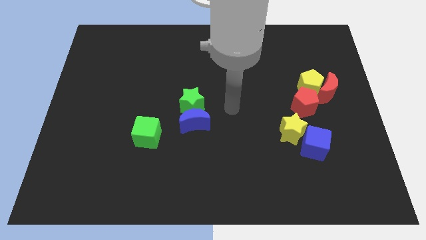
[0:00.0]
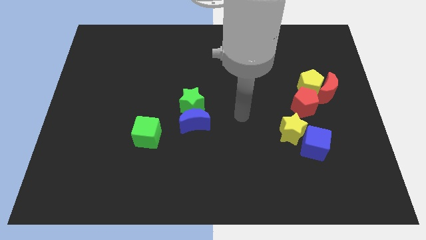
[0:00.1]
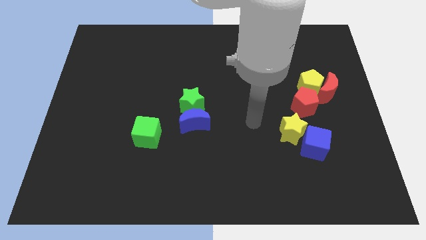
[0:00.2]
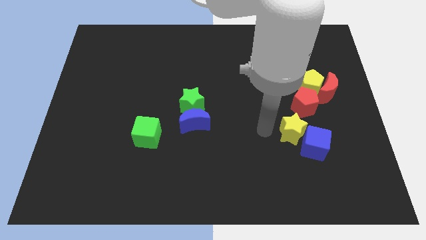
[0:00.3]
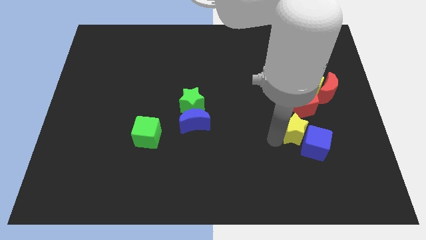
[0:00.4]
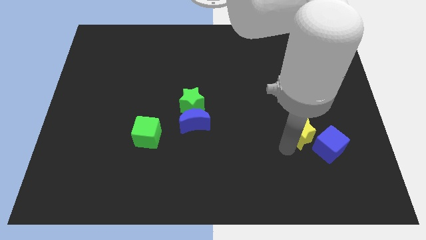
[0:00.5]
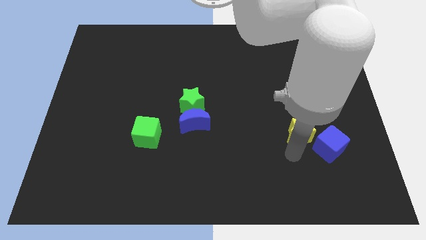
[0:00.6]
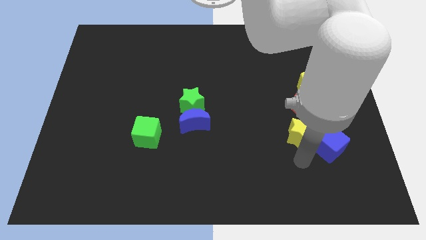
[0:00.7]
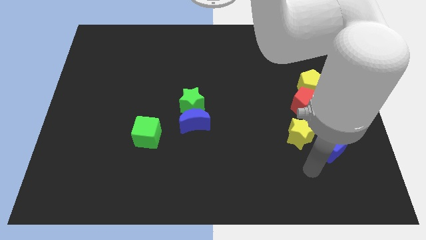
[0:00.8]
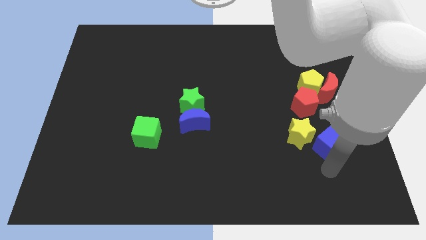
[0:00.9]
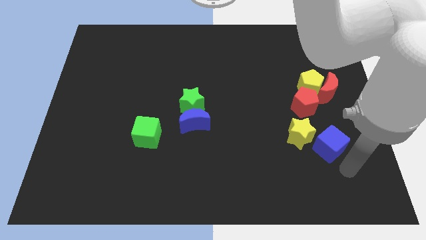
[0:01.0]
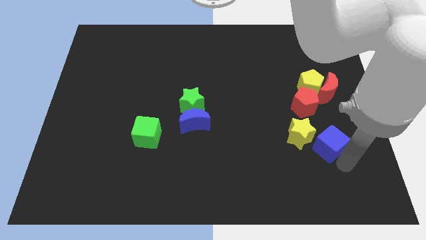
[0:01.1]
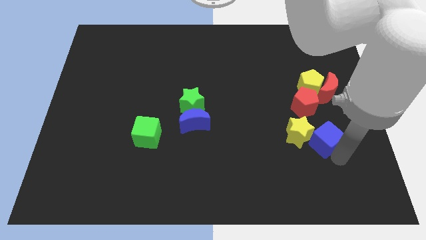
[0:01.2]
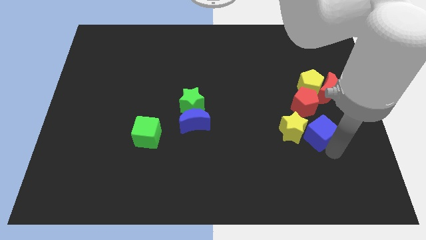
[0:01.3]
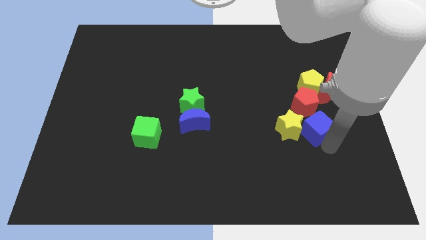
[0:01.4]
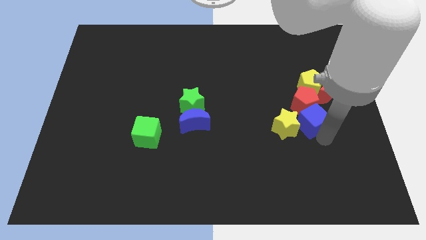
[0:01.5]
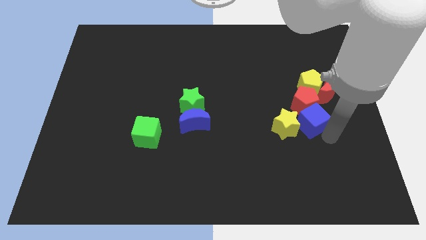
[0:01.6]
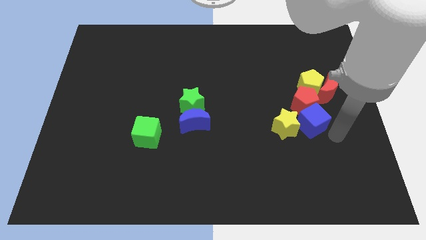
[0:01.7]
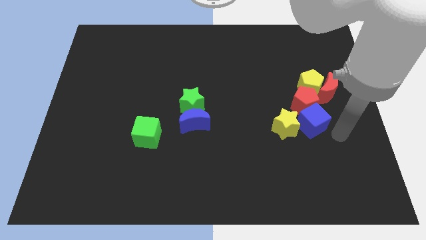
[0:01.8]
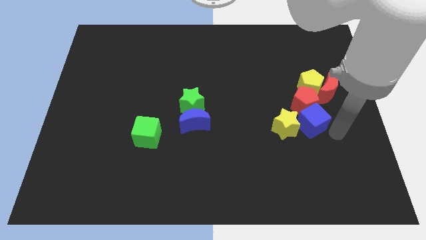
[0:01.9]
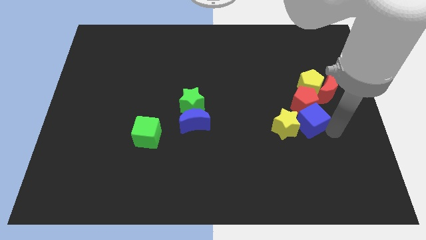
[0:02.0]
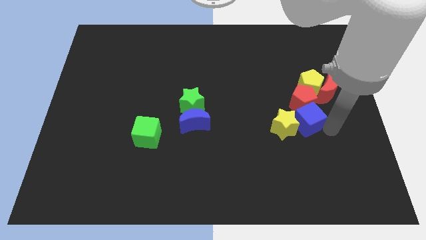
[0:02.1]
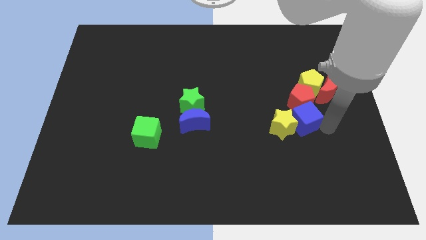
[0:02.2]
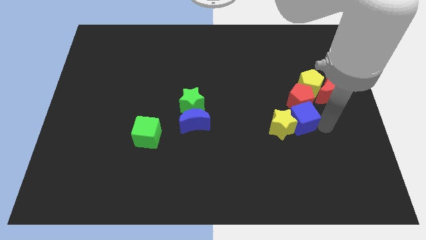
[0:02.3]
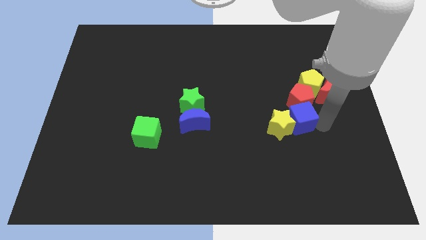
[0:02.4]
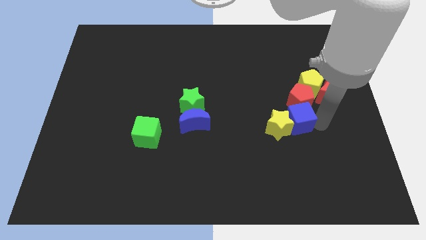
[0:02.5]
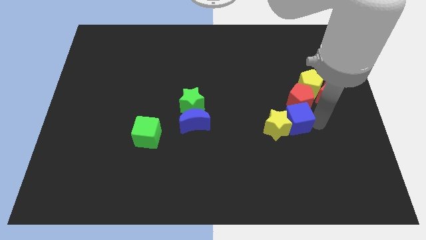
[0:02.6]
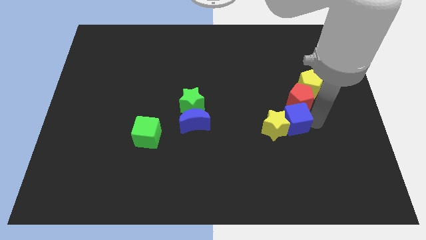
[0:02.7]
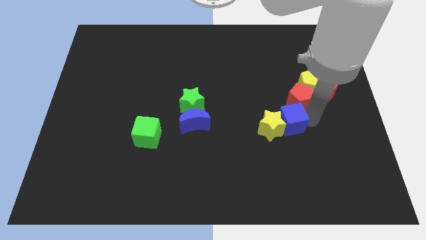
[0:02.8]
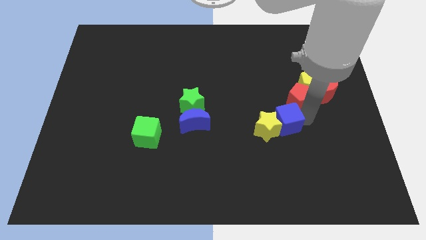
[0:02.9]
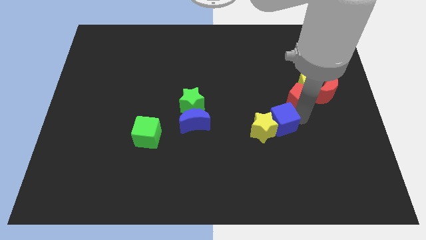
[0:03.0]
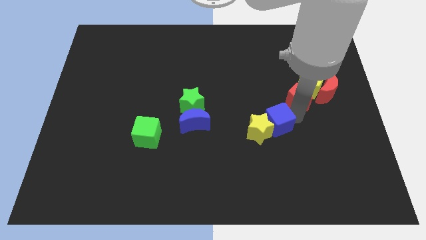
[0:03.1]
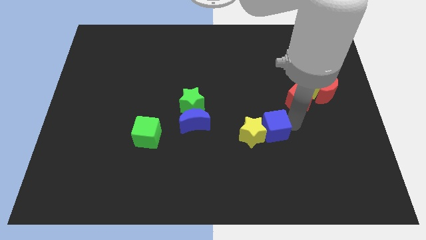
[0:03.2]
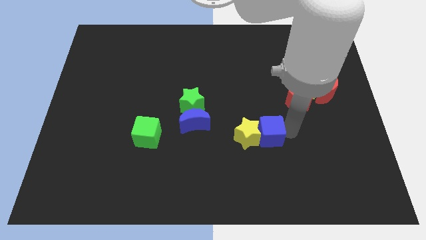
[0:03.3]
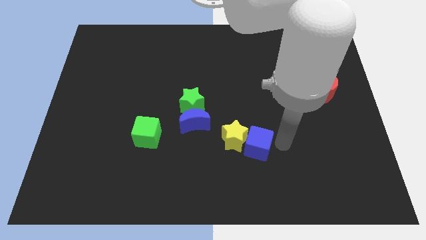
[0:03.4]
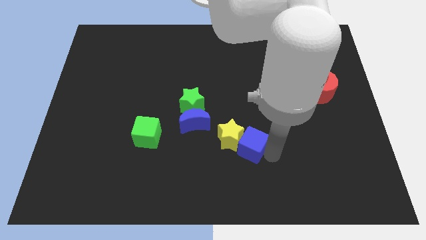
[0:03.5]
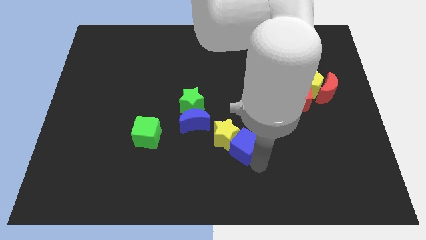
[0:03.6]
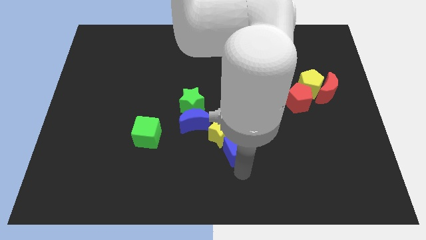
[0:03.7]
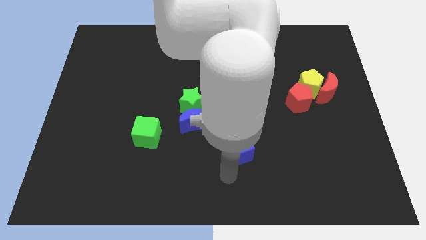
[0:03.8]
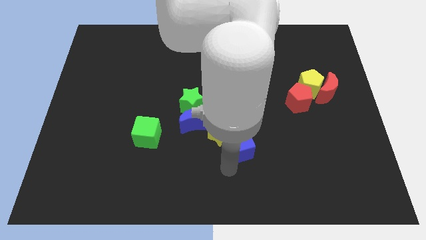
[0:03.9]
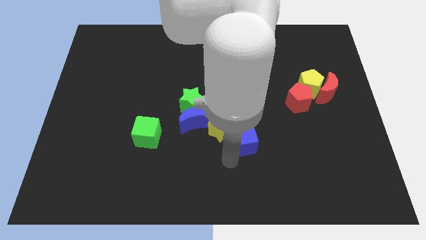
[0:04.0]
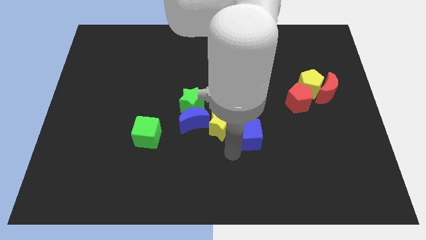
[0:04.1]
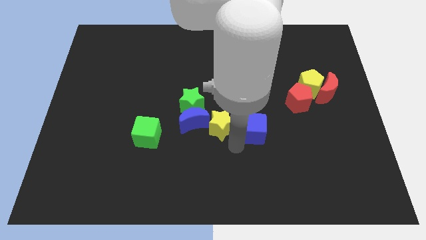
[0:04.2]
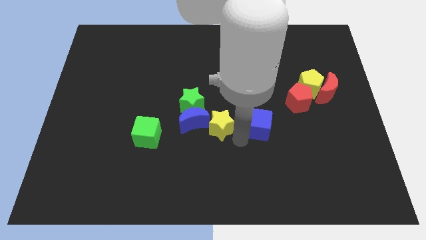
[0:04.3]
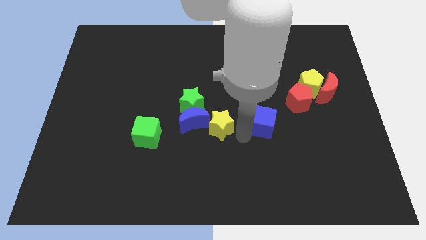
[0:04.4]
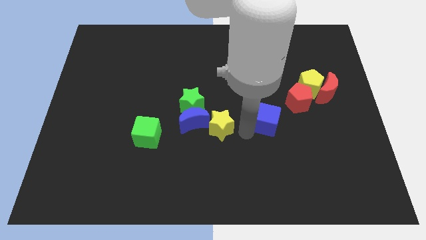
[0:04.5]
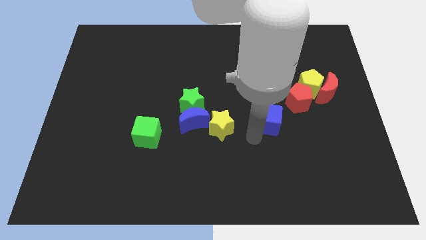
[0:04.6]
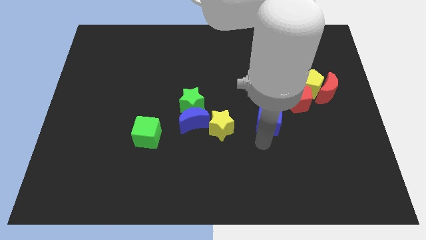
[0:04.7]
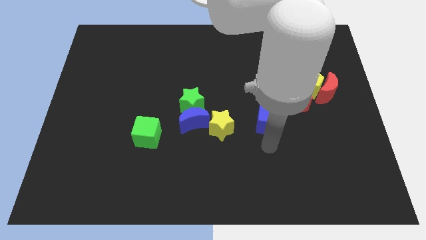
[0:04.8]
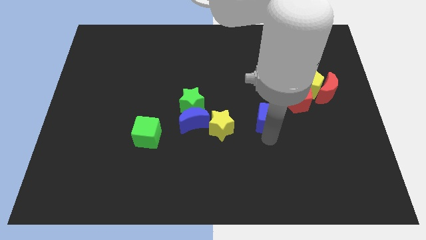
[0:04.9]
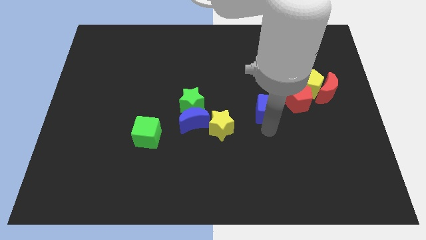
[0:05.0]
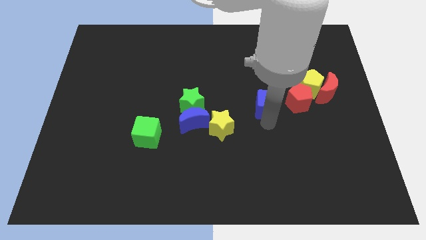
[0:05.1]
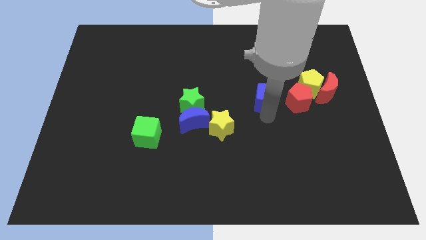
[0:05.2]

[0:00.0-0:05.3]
slide the blue cube just left of the yellow pentagon
